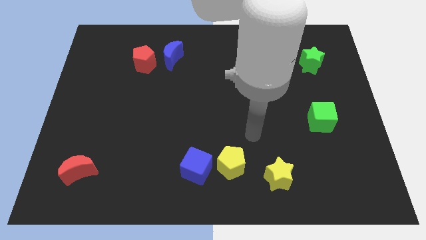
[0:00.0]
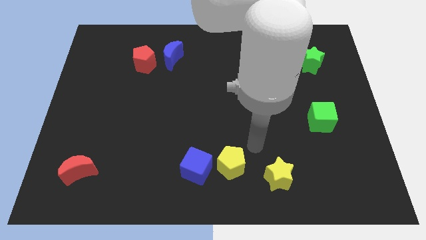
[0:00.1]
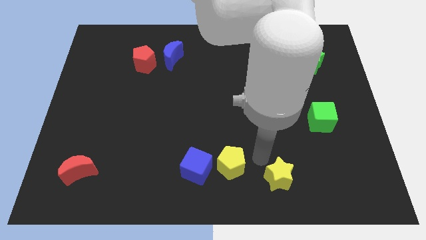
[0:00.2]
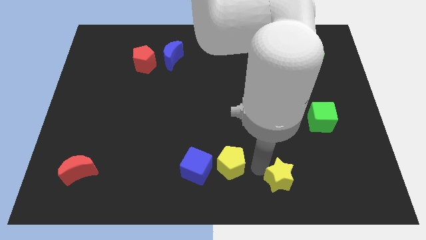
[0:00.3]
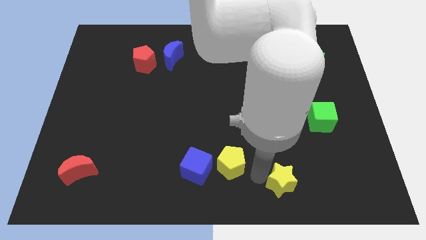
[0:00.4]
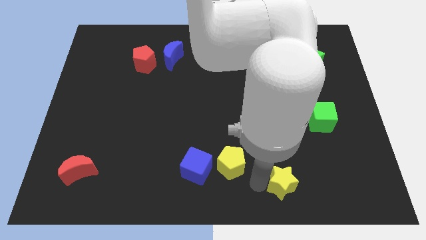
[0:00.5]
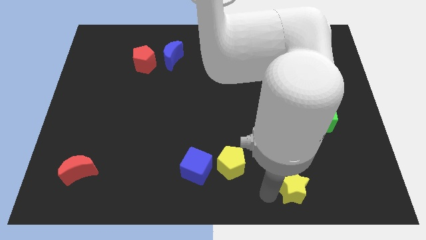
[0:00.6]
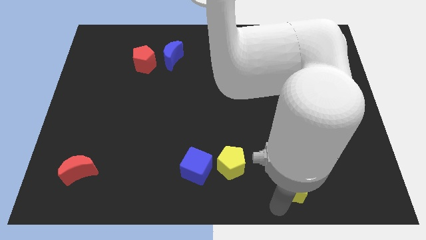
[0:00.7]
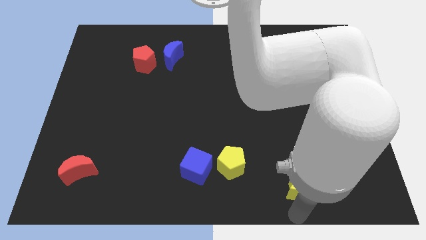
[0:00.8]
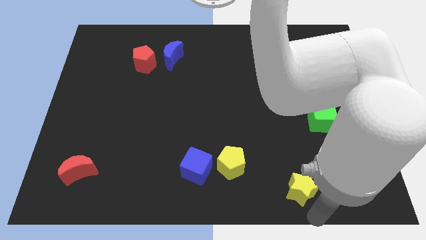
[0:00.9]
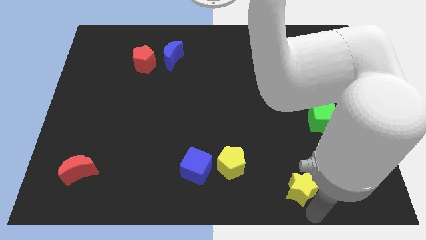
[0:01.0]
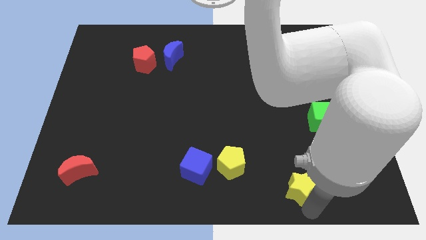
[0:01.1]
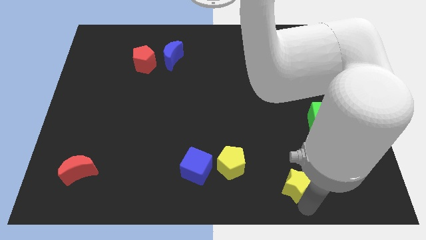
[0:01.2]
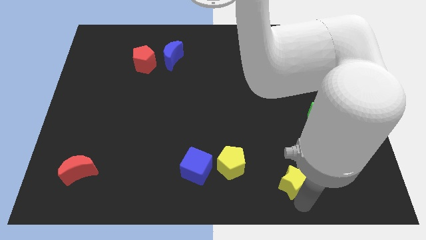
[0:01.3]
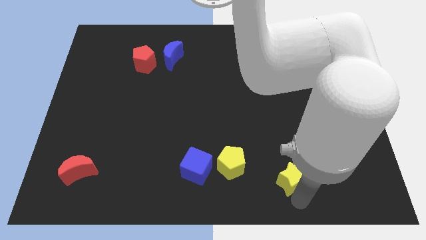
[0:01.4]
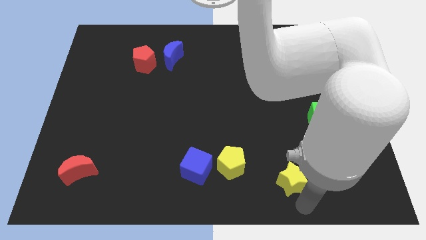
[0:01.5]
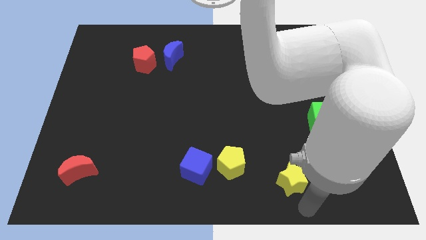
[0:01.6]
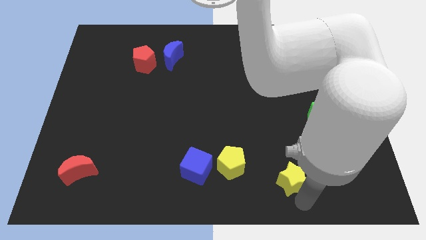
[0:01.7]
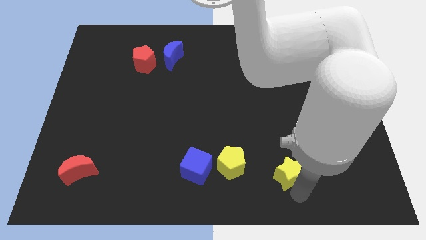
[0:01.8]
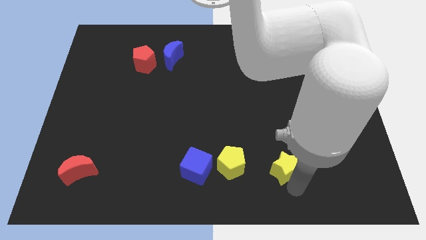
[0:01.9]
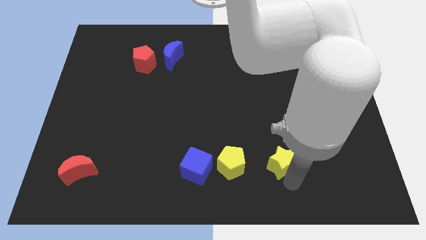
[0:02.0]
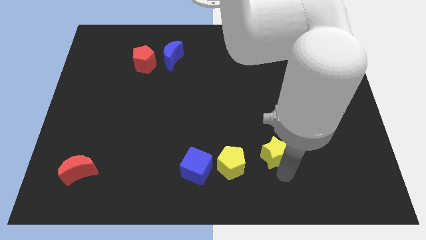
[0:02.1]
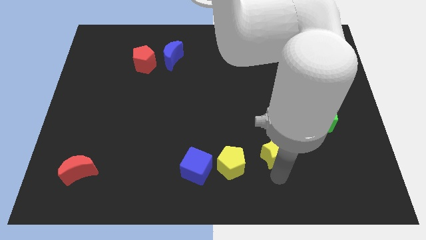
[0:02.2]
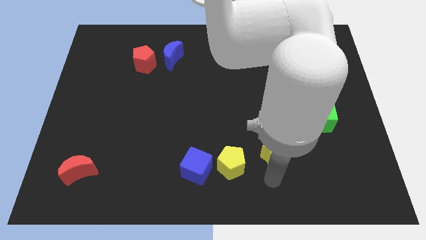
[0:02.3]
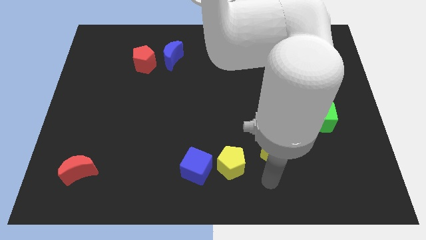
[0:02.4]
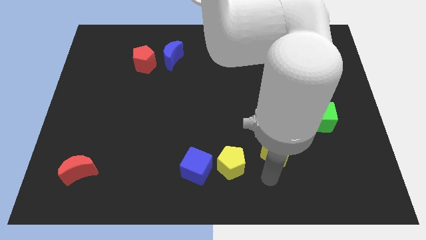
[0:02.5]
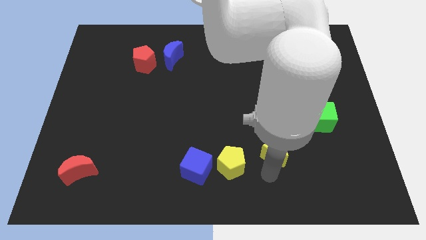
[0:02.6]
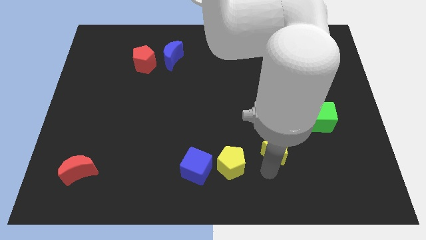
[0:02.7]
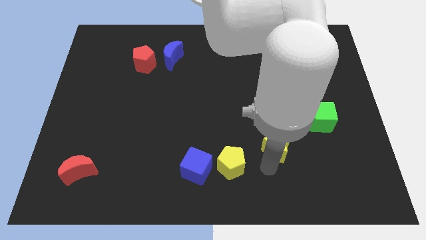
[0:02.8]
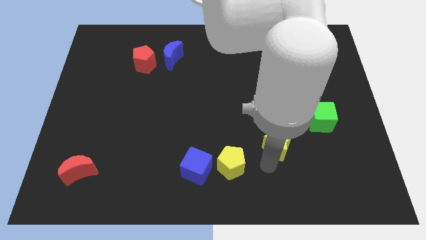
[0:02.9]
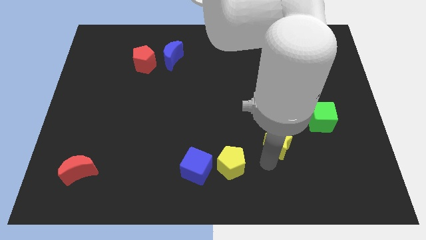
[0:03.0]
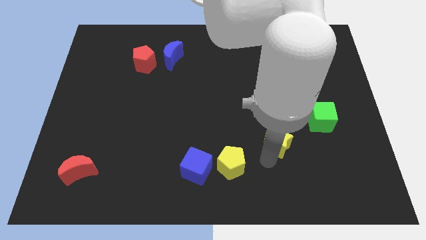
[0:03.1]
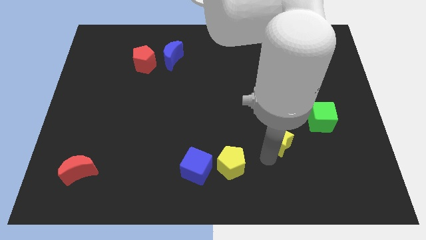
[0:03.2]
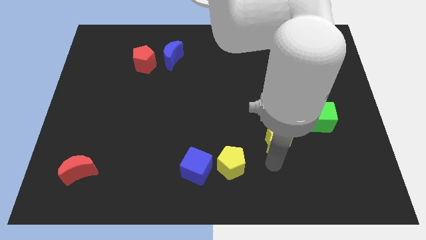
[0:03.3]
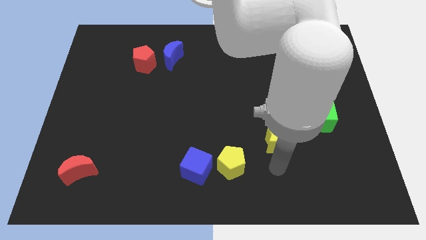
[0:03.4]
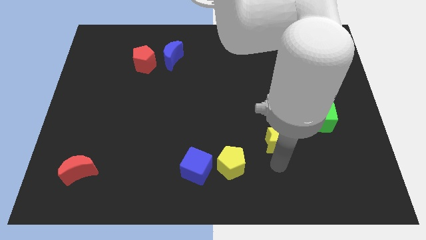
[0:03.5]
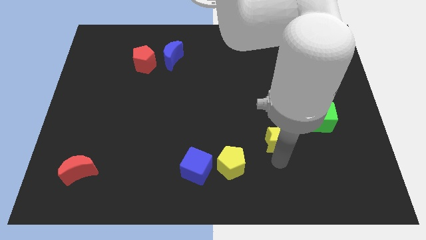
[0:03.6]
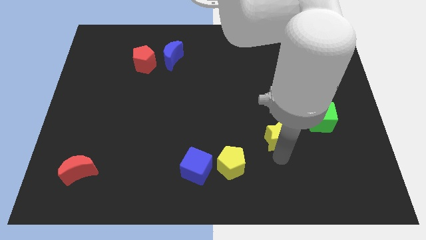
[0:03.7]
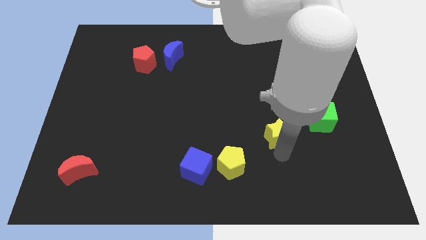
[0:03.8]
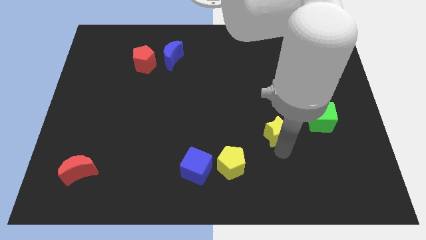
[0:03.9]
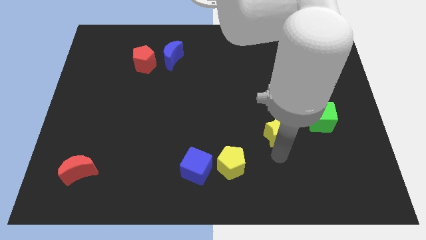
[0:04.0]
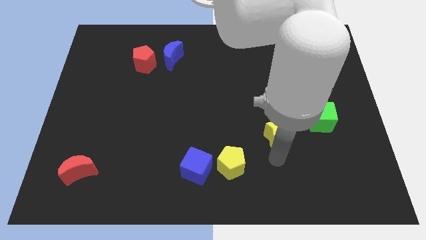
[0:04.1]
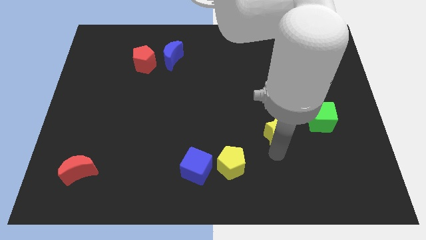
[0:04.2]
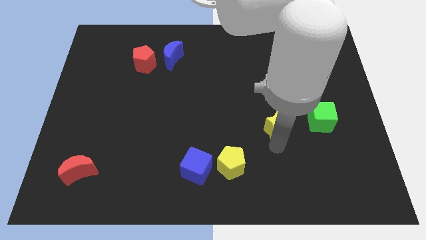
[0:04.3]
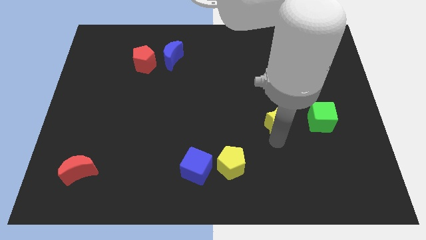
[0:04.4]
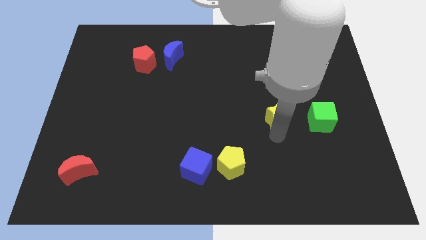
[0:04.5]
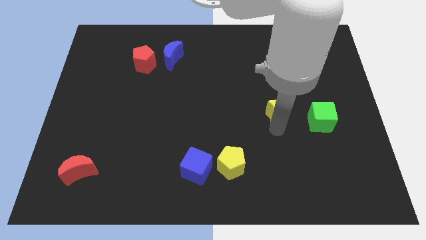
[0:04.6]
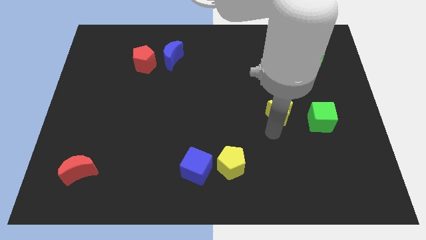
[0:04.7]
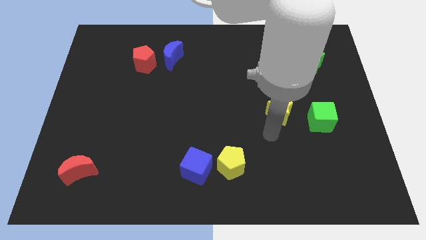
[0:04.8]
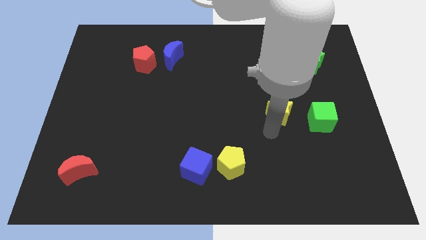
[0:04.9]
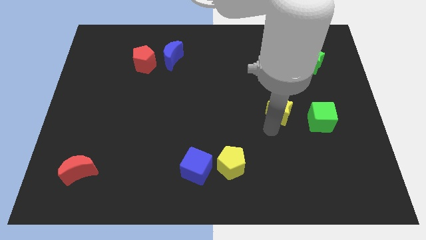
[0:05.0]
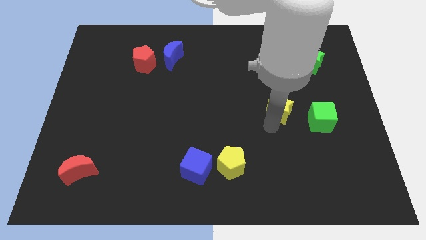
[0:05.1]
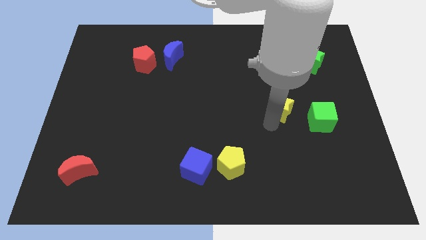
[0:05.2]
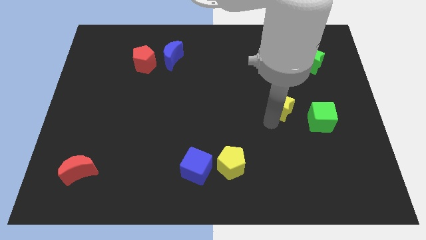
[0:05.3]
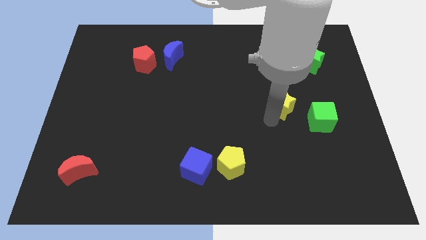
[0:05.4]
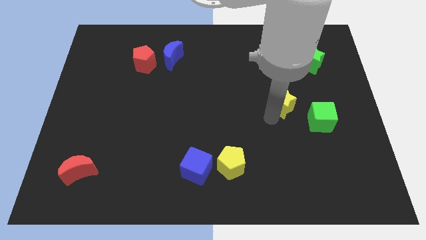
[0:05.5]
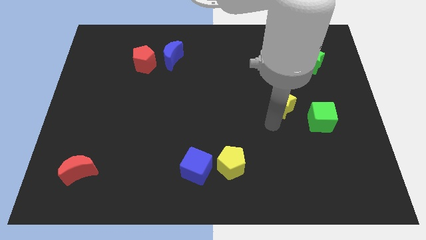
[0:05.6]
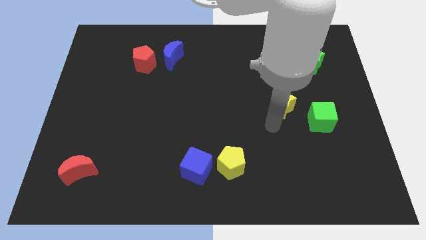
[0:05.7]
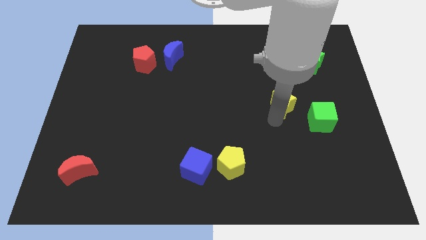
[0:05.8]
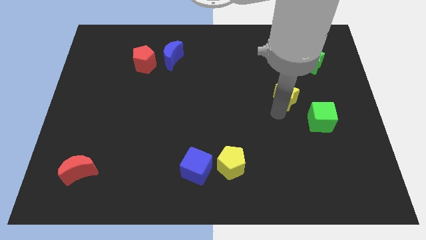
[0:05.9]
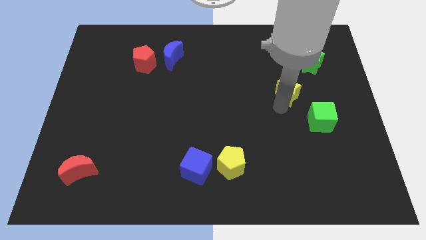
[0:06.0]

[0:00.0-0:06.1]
push the yellow star to the bottom left side of the green star

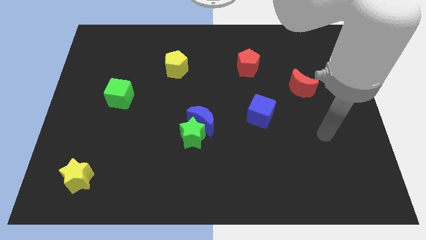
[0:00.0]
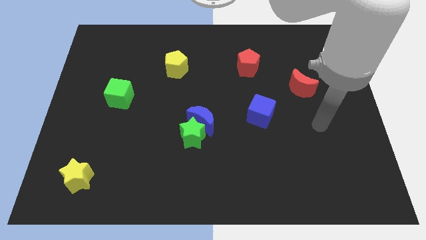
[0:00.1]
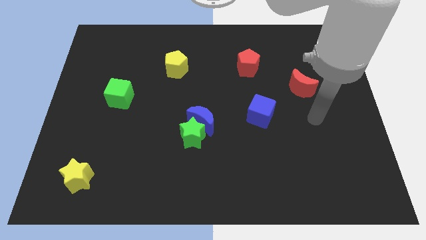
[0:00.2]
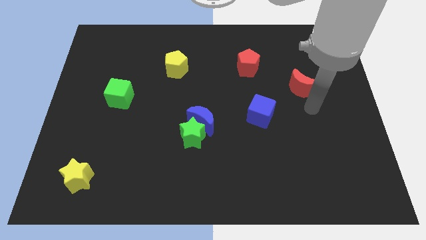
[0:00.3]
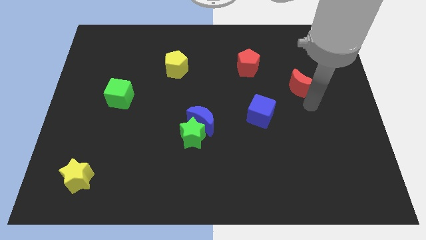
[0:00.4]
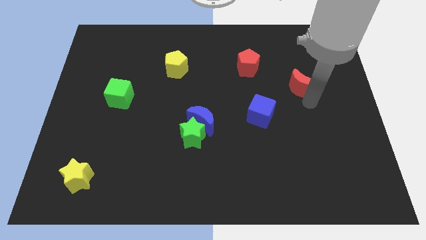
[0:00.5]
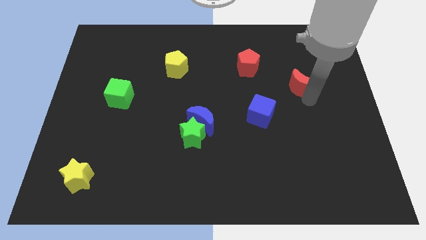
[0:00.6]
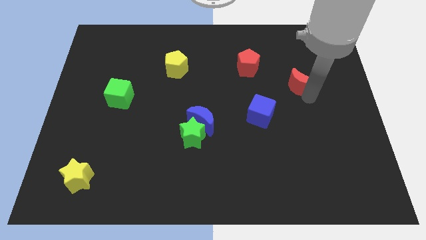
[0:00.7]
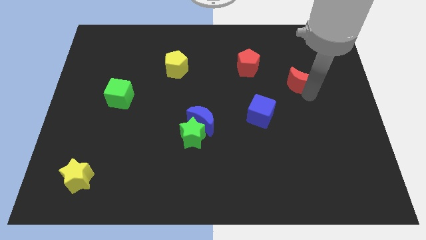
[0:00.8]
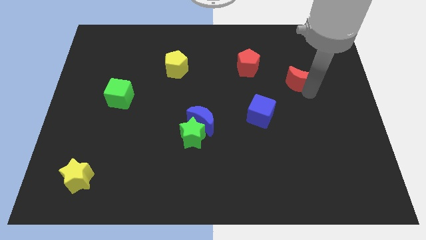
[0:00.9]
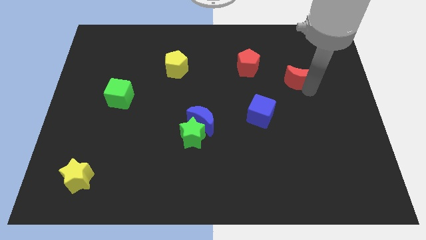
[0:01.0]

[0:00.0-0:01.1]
slide the red moon right of the red pentagon
